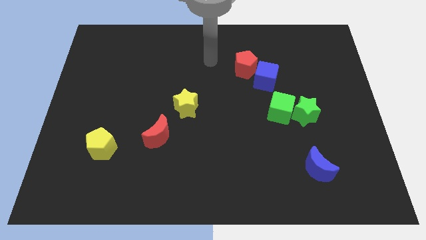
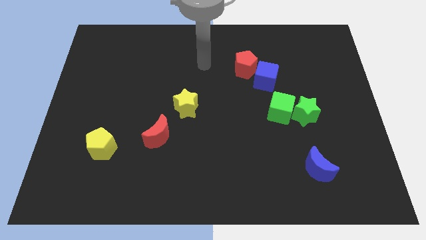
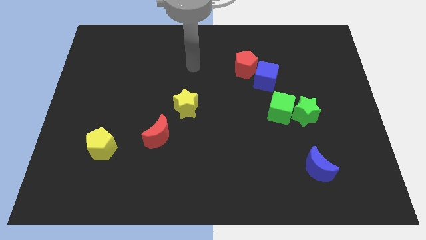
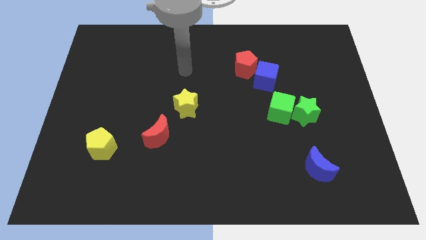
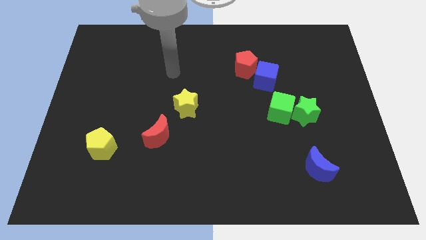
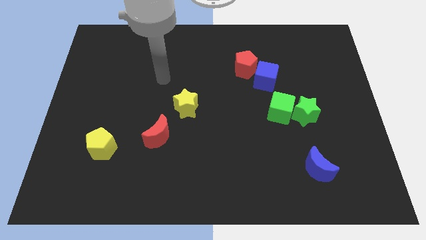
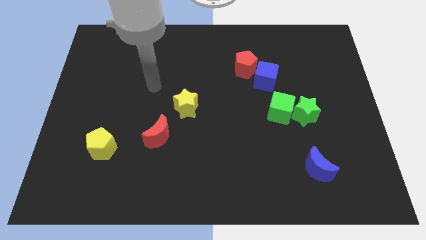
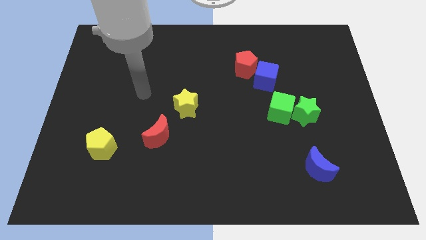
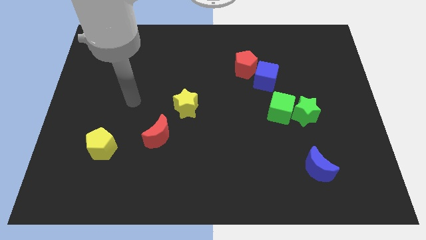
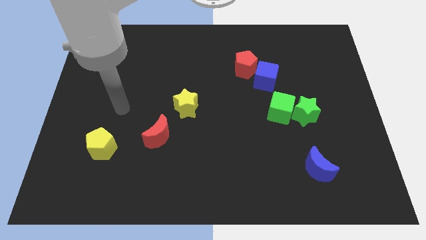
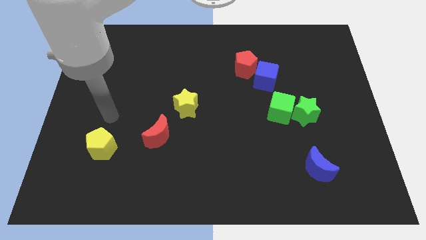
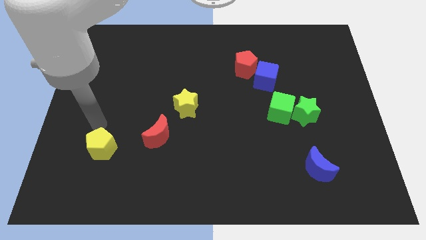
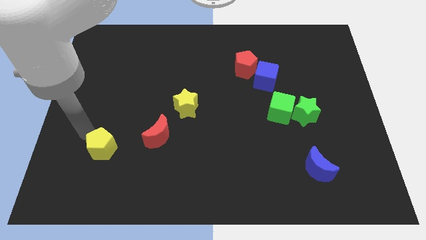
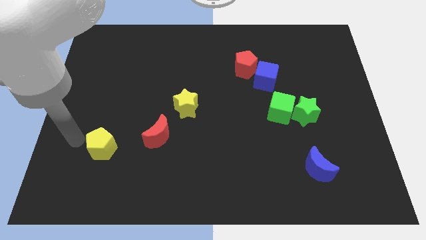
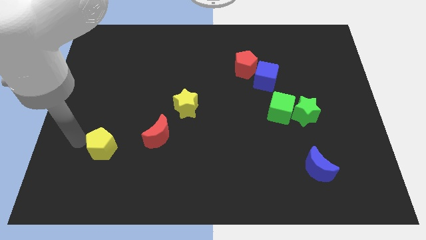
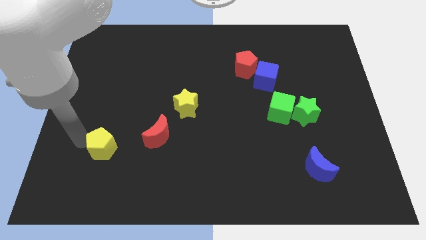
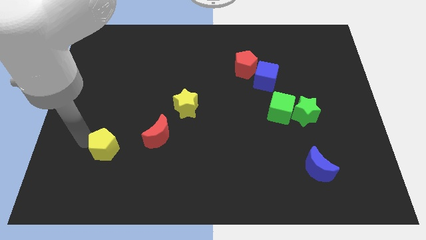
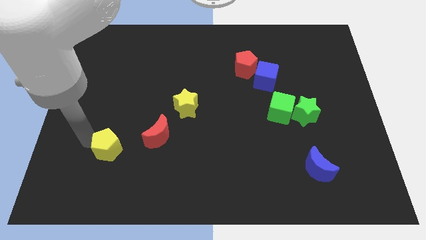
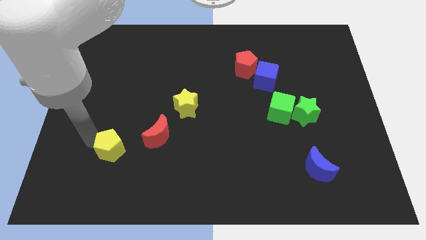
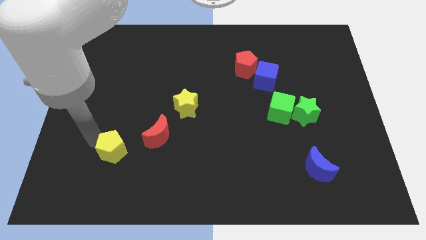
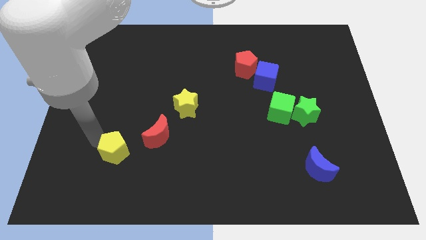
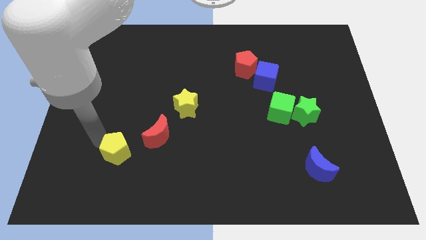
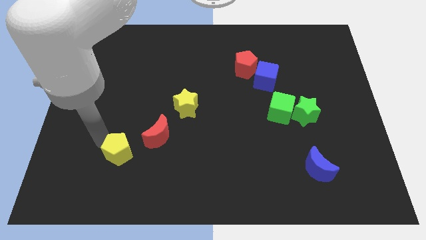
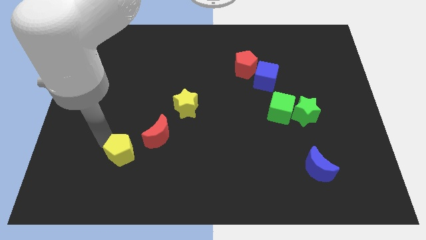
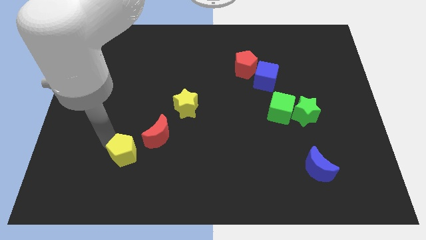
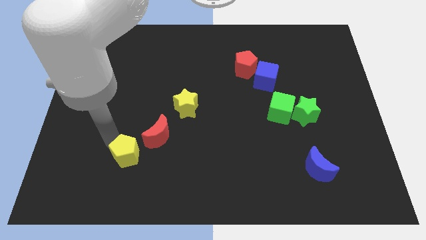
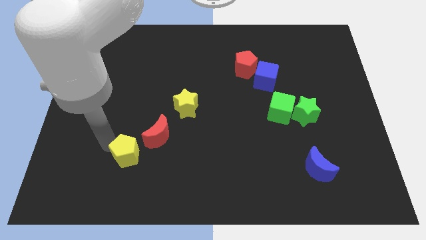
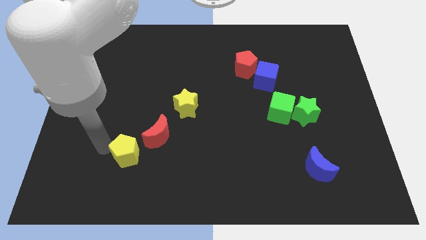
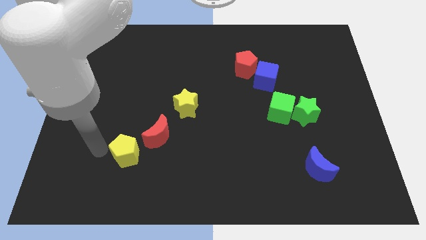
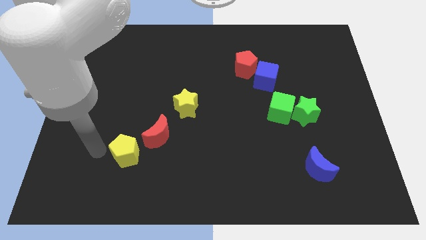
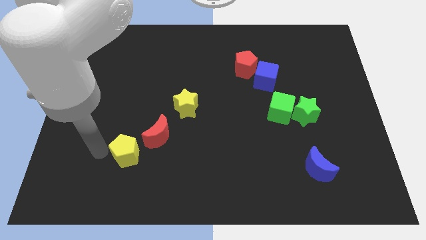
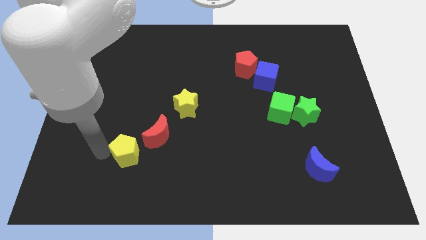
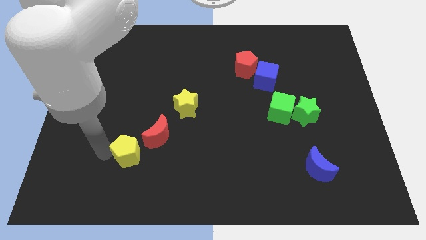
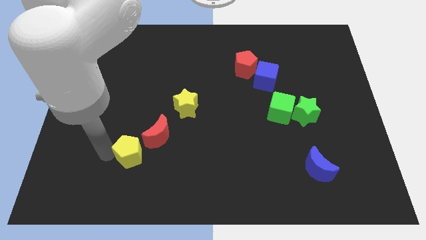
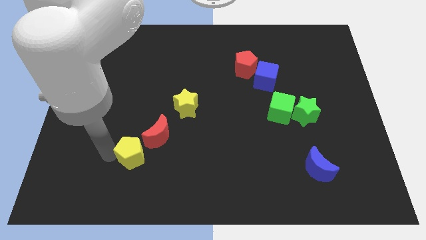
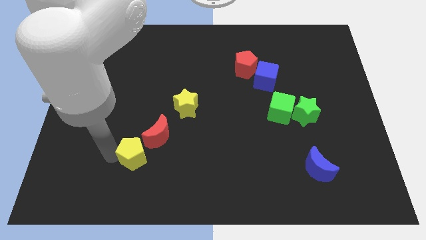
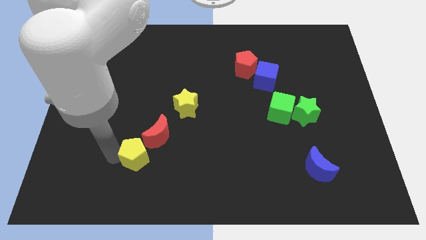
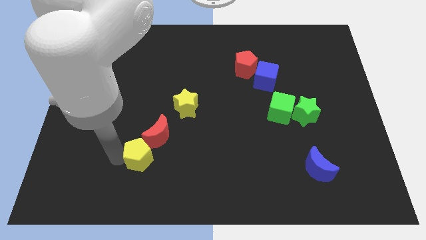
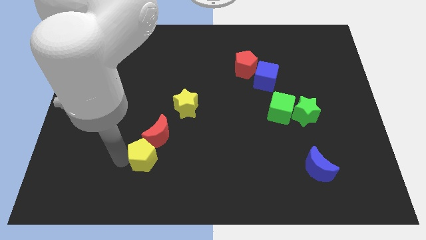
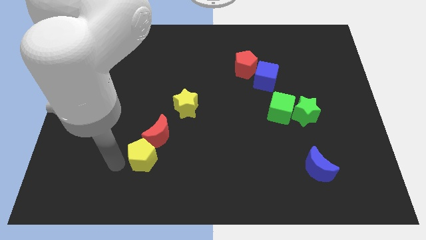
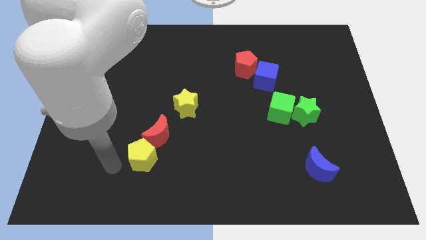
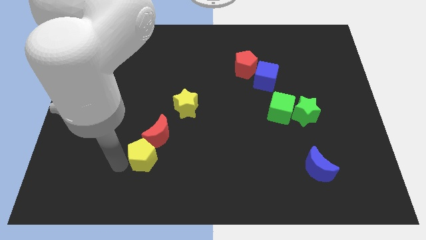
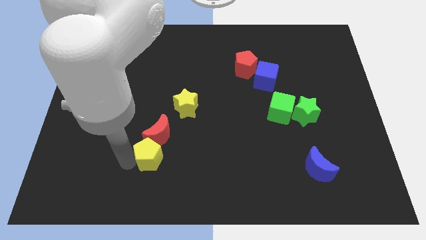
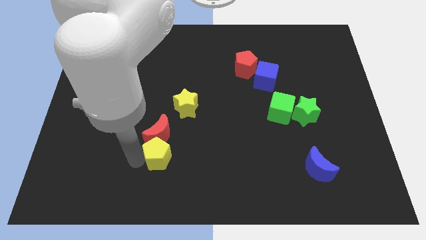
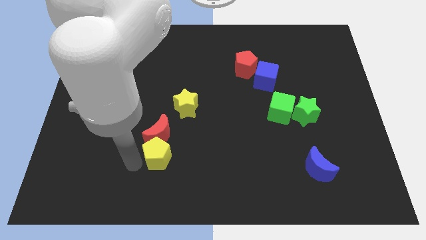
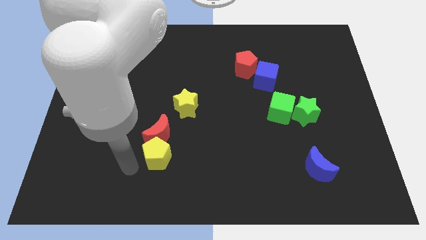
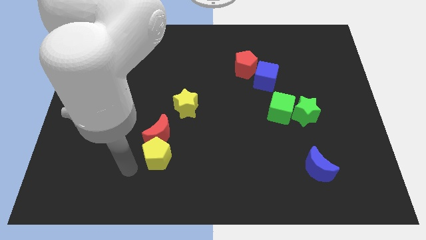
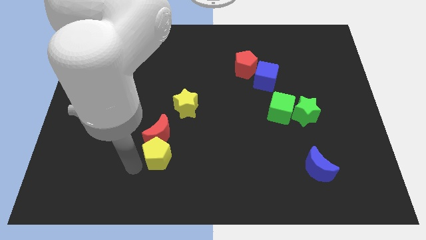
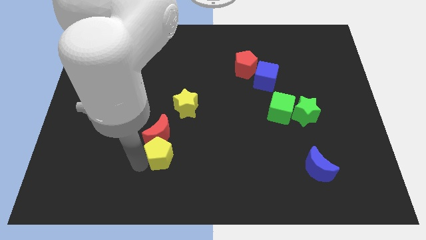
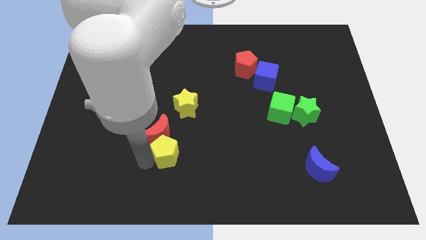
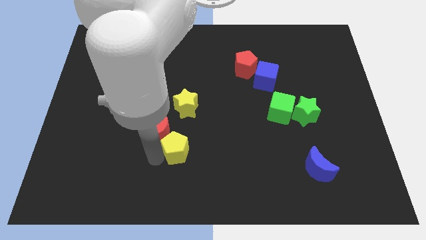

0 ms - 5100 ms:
slide the yellow pentagon to the right of the red moon

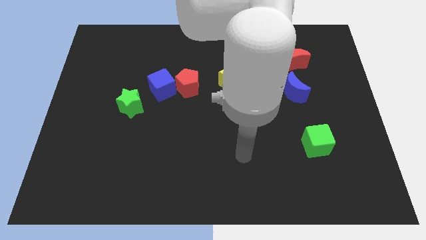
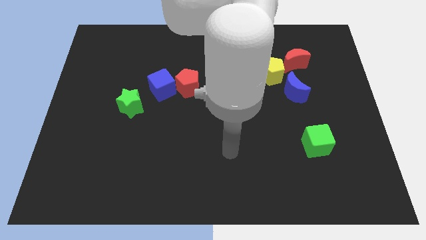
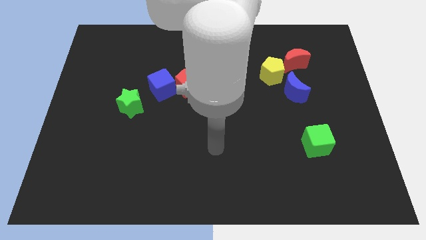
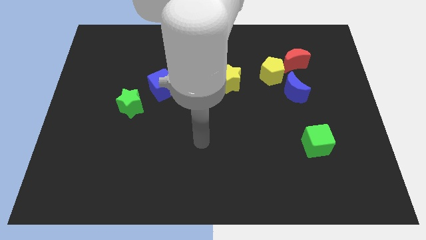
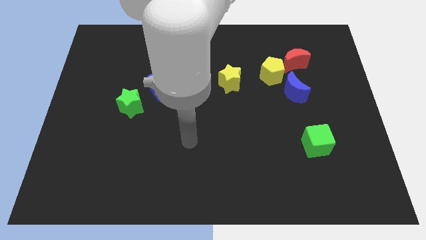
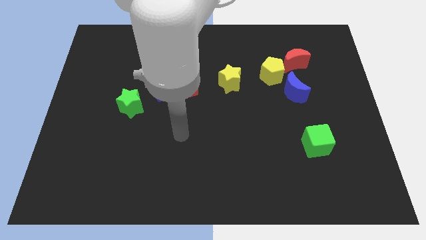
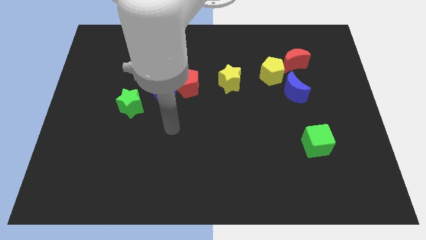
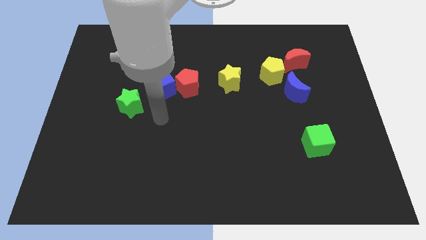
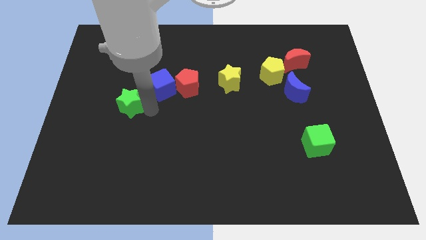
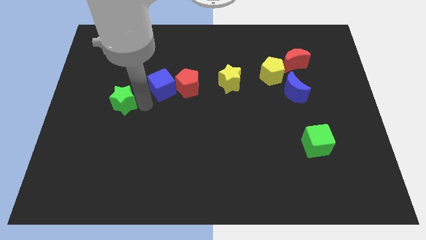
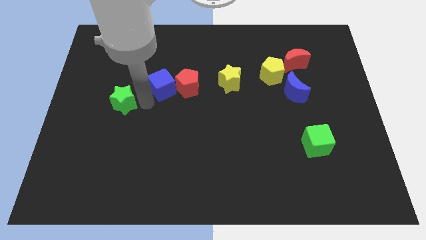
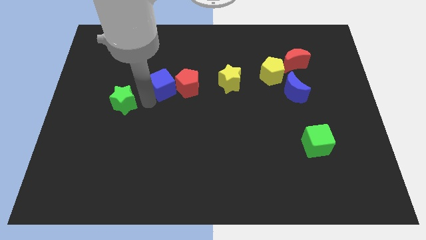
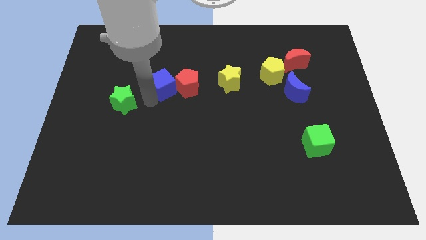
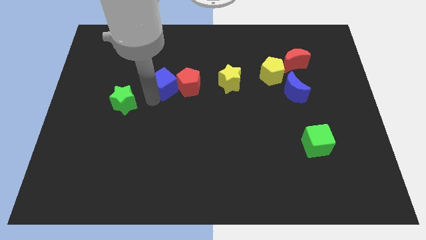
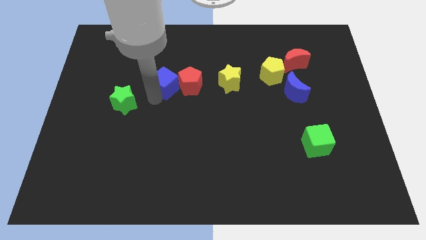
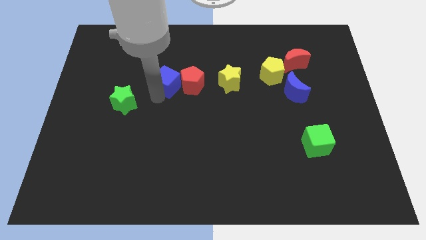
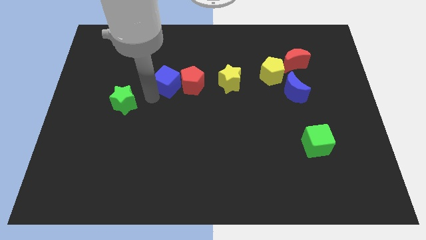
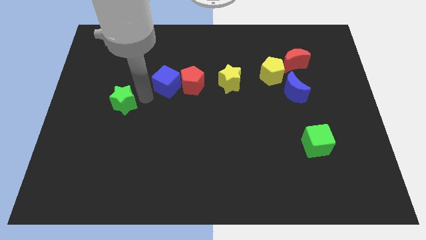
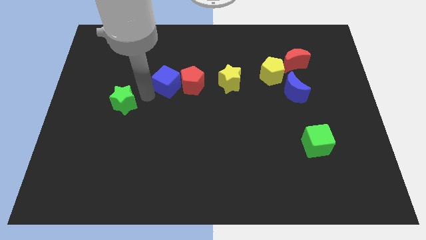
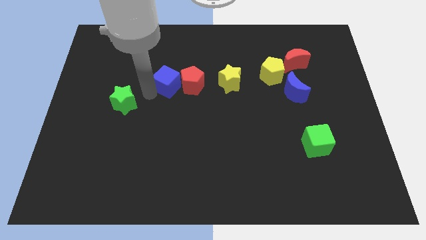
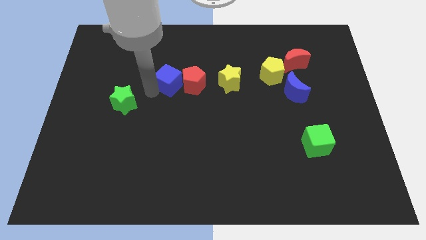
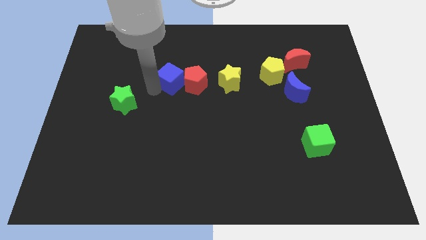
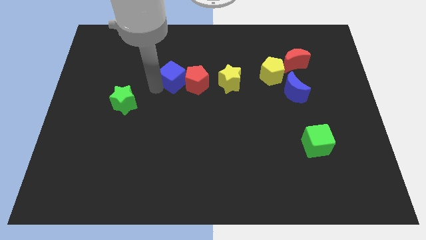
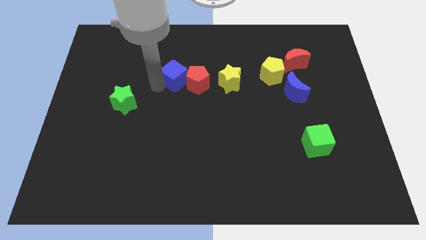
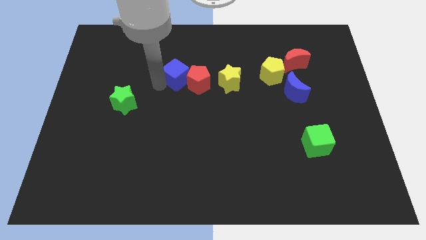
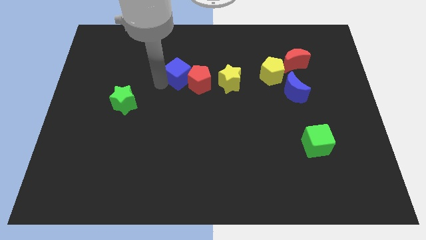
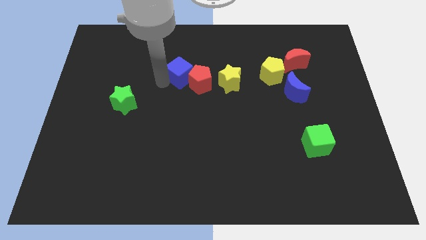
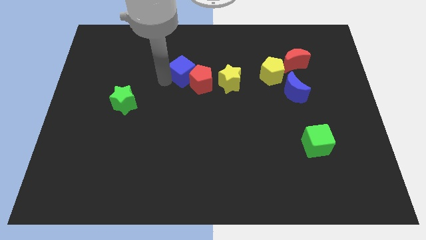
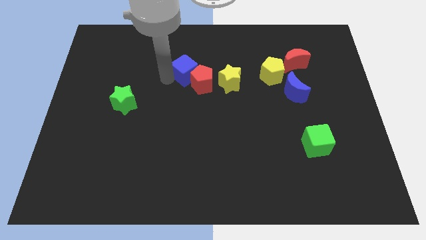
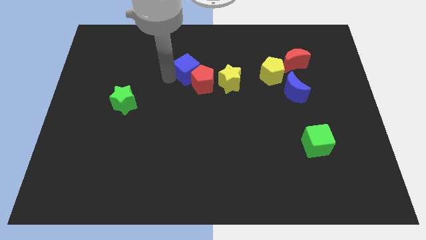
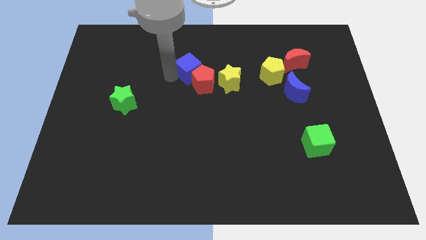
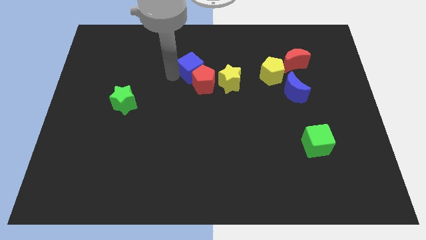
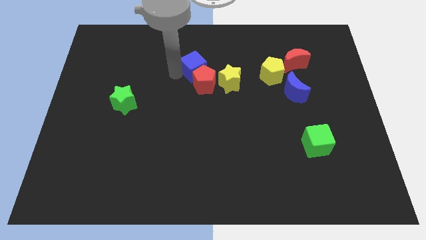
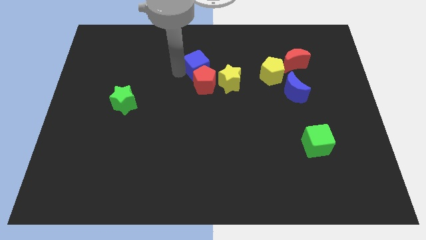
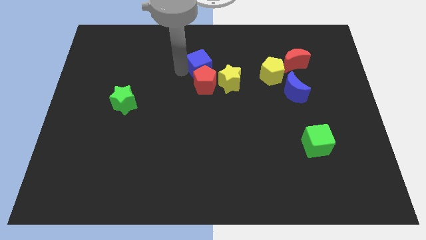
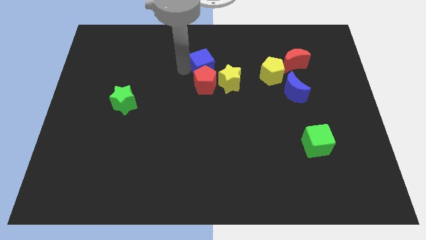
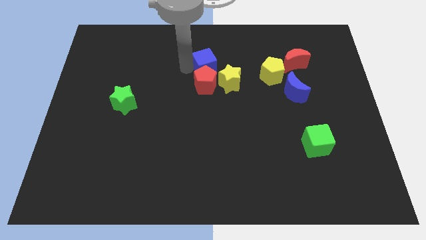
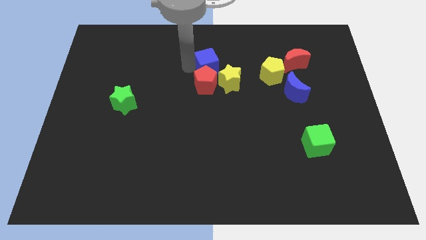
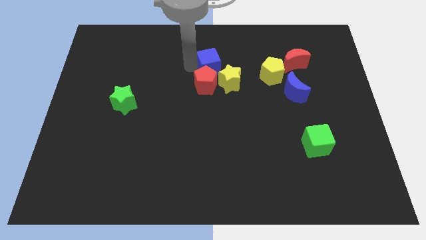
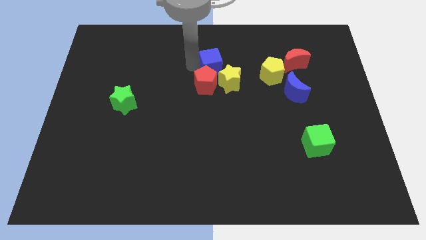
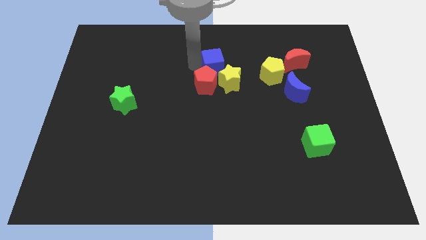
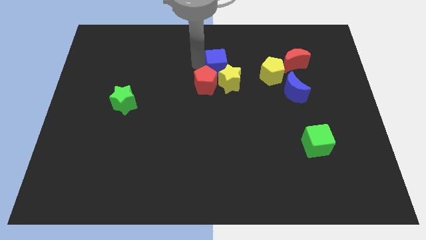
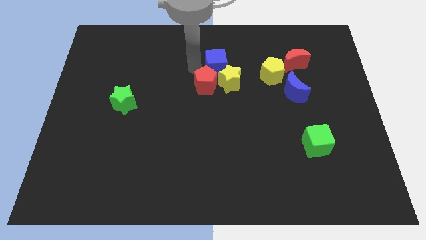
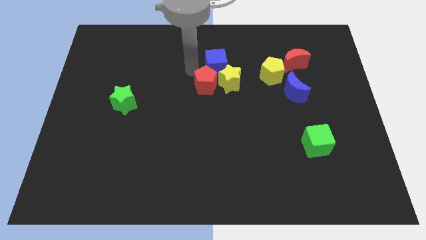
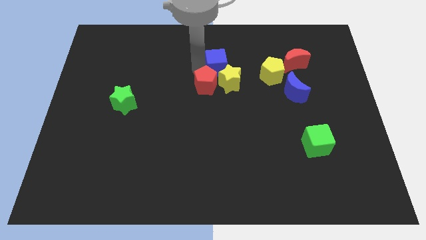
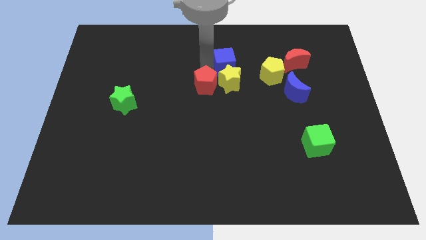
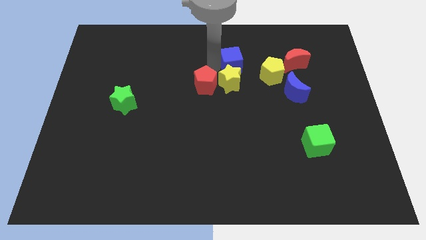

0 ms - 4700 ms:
push the blue cube to the top left side of the yellow pentagon
